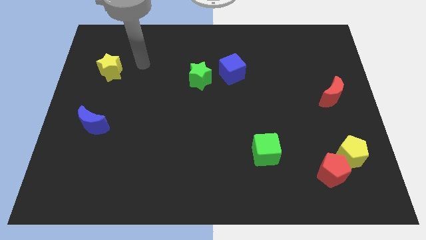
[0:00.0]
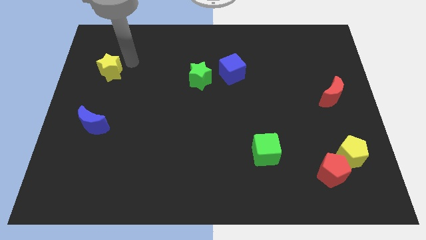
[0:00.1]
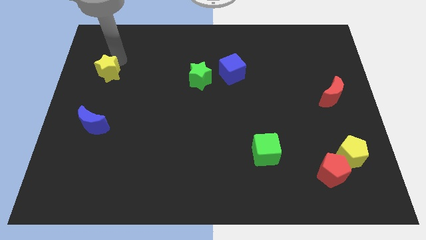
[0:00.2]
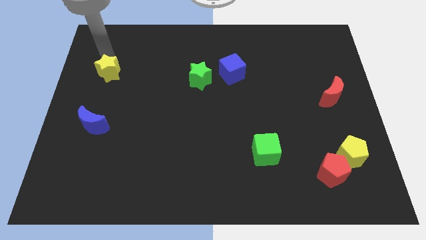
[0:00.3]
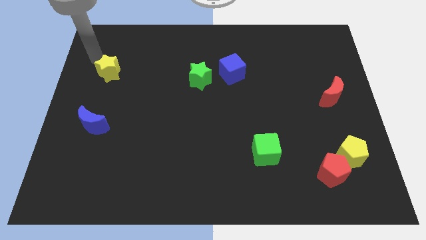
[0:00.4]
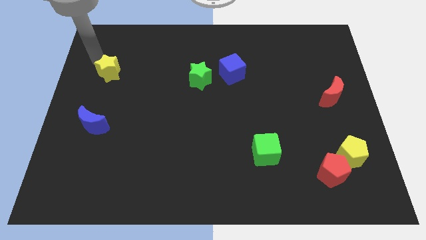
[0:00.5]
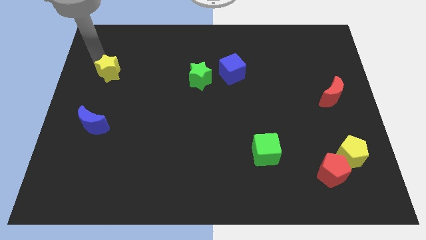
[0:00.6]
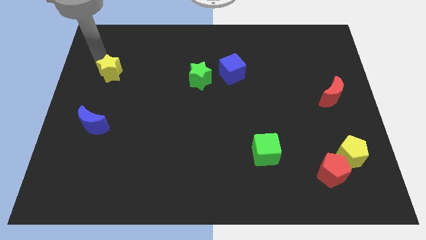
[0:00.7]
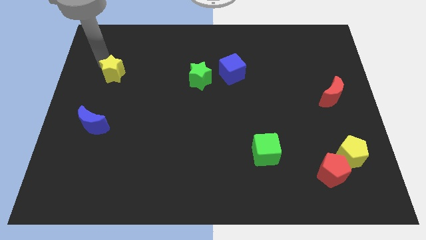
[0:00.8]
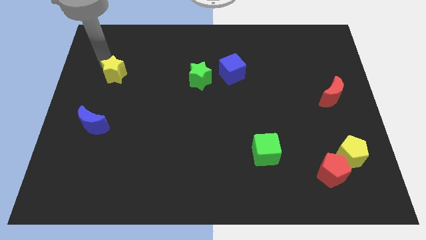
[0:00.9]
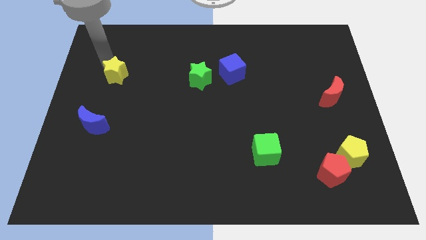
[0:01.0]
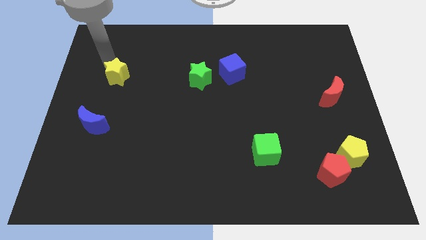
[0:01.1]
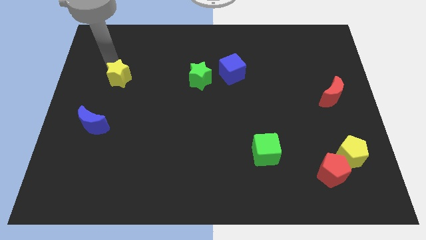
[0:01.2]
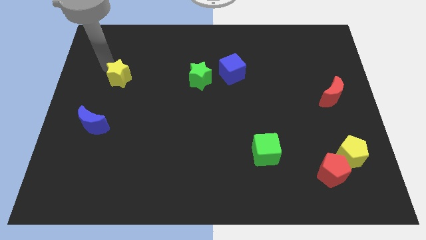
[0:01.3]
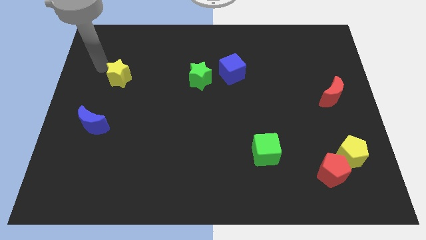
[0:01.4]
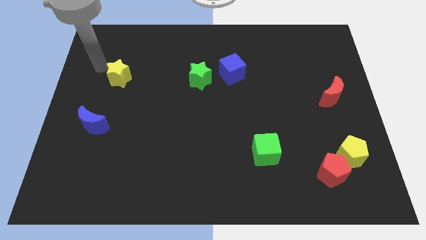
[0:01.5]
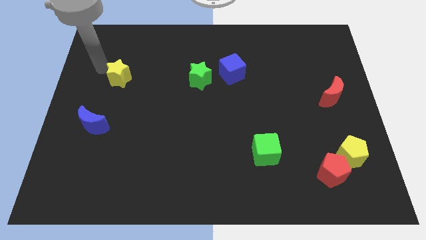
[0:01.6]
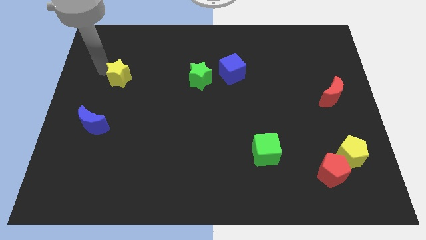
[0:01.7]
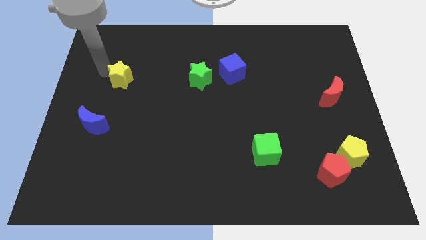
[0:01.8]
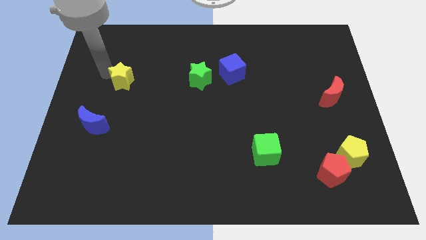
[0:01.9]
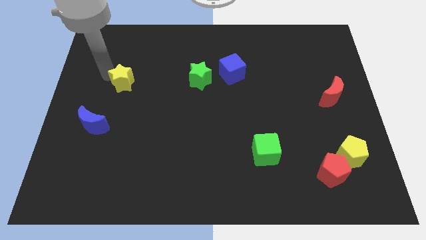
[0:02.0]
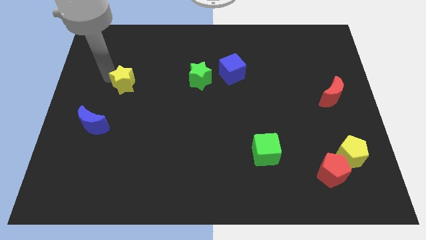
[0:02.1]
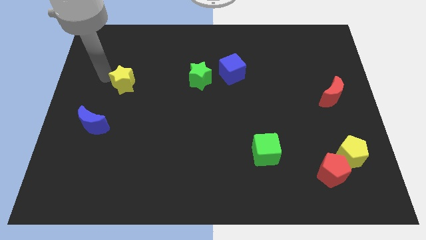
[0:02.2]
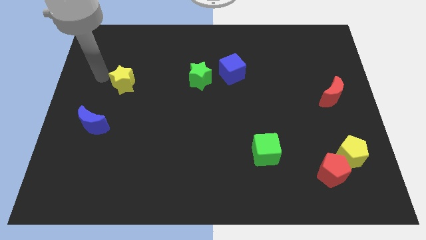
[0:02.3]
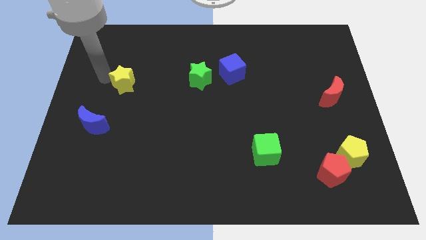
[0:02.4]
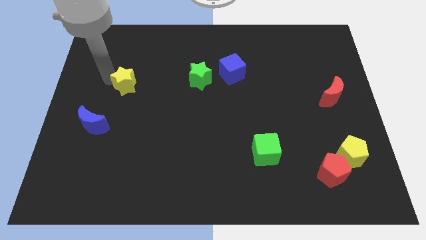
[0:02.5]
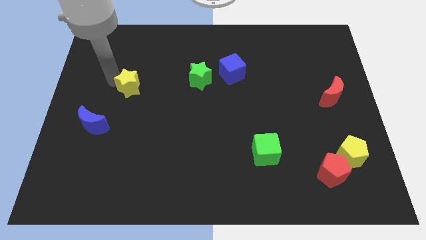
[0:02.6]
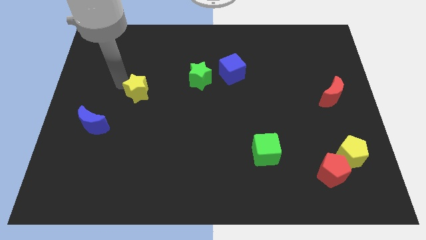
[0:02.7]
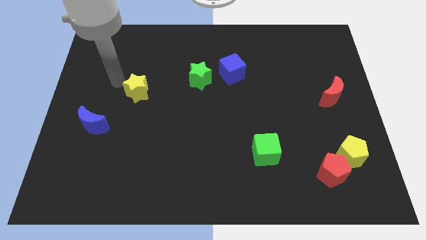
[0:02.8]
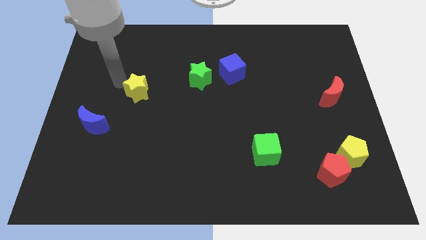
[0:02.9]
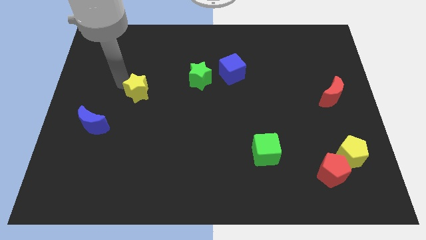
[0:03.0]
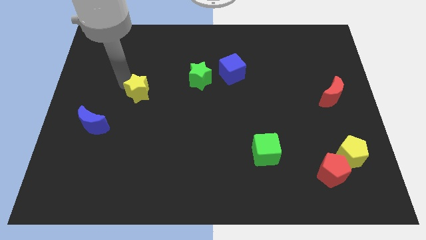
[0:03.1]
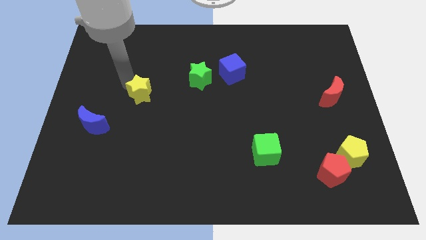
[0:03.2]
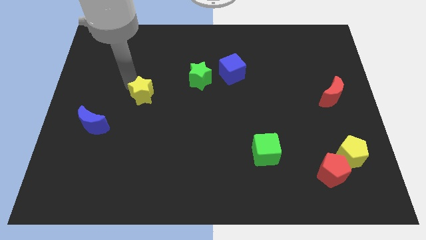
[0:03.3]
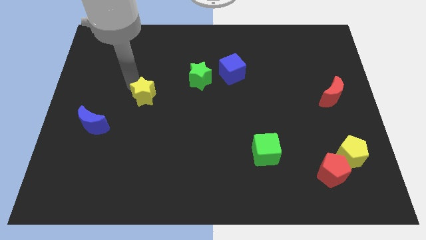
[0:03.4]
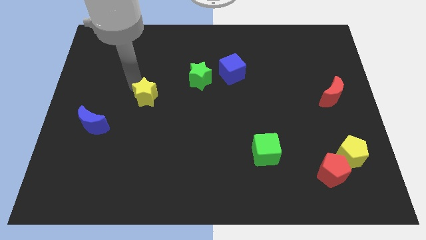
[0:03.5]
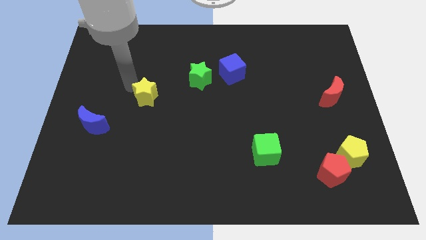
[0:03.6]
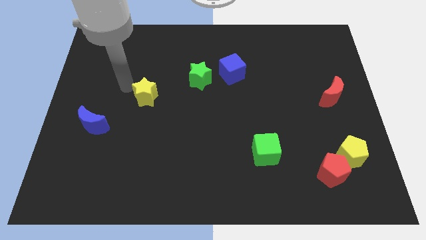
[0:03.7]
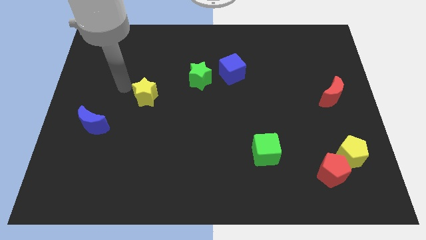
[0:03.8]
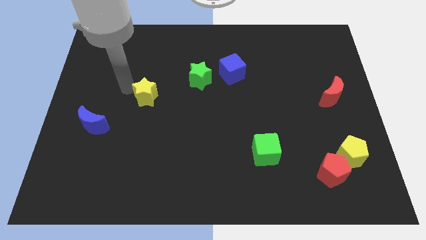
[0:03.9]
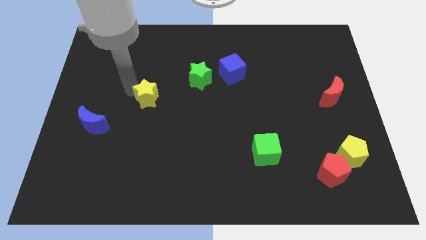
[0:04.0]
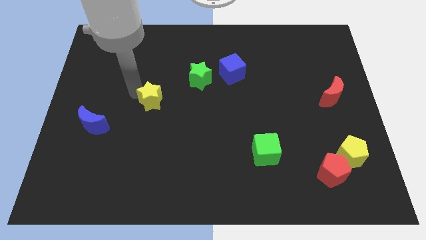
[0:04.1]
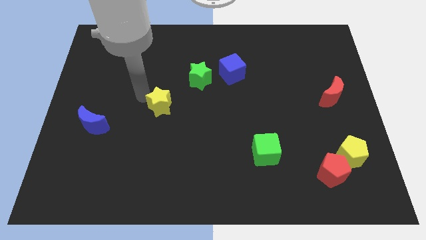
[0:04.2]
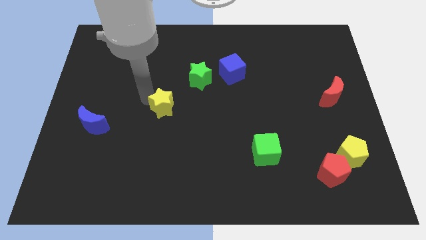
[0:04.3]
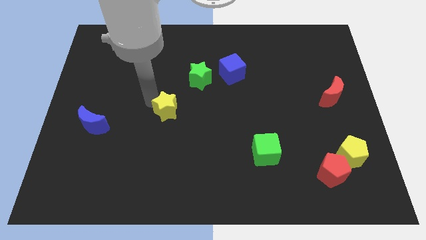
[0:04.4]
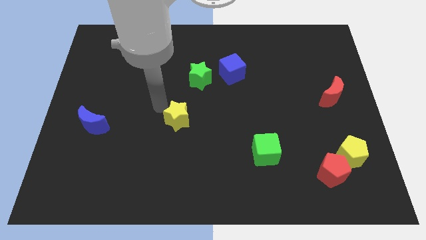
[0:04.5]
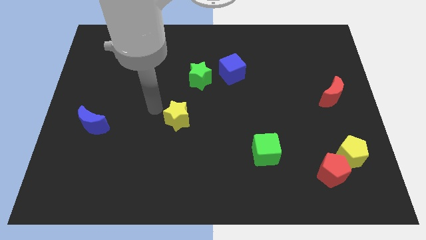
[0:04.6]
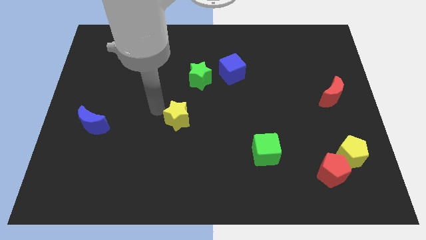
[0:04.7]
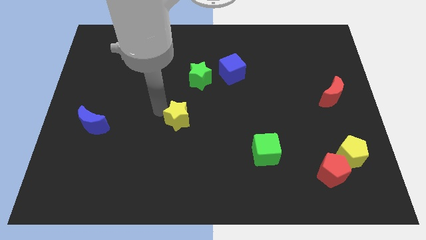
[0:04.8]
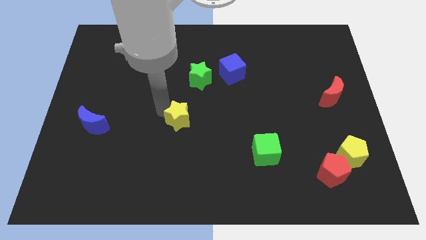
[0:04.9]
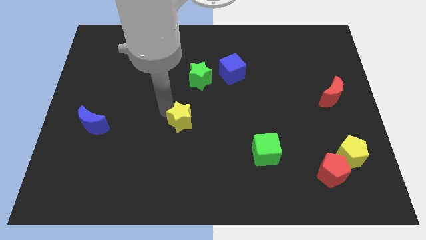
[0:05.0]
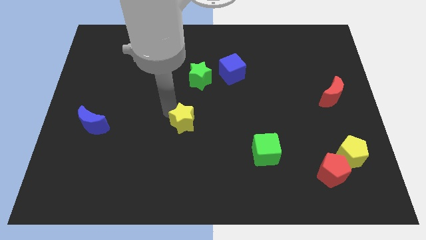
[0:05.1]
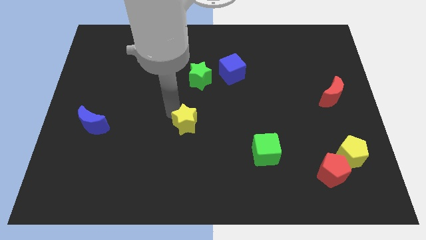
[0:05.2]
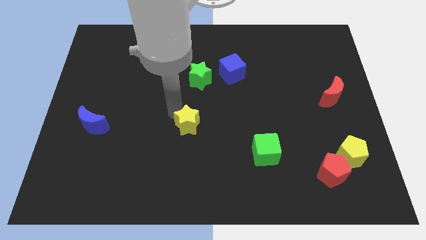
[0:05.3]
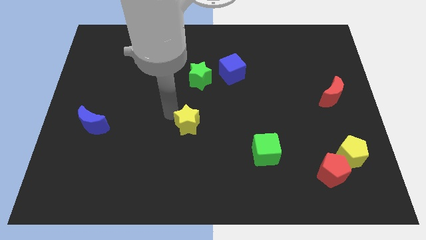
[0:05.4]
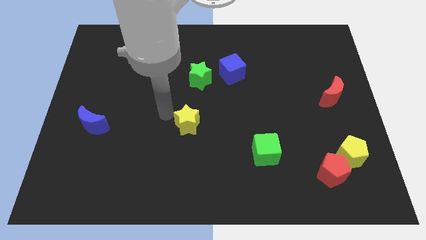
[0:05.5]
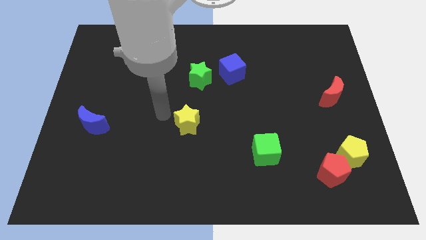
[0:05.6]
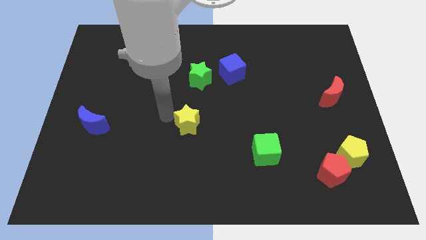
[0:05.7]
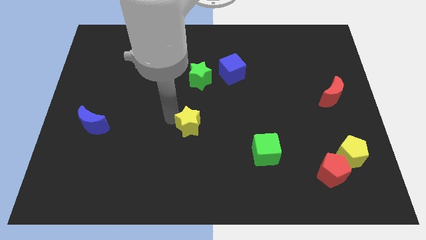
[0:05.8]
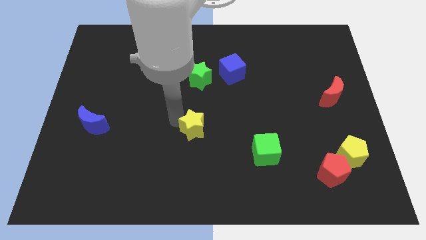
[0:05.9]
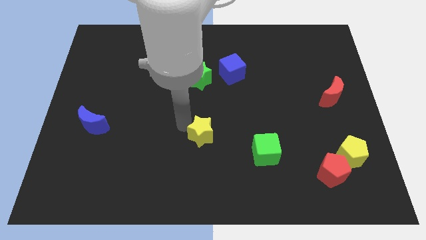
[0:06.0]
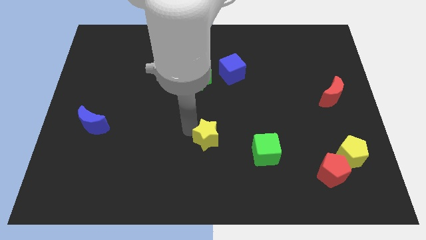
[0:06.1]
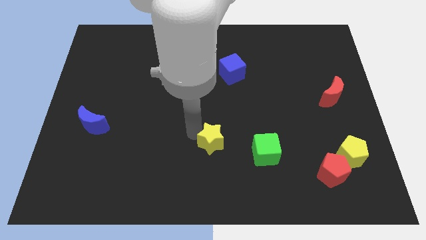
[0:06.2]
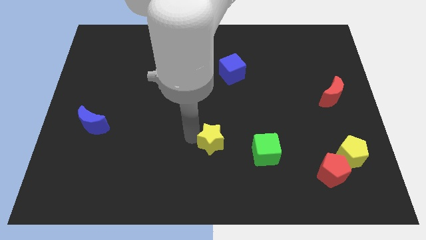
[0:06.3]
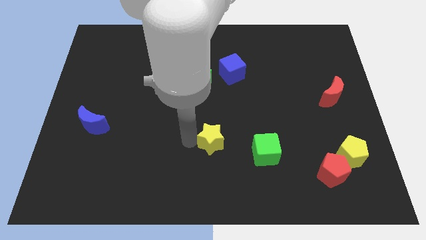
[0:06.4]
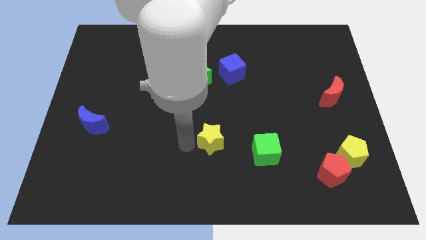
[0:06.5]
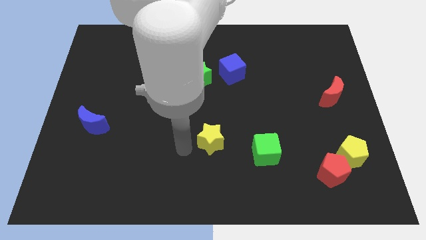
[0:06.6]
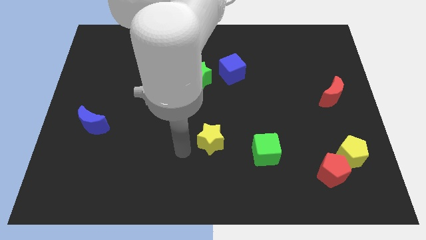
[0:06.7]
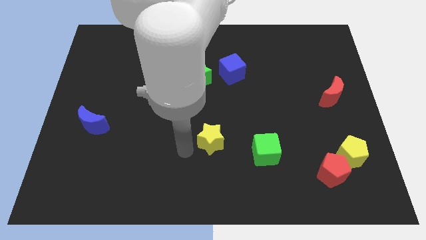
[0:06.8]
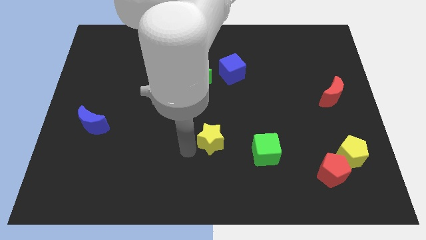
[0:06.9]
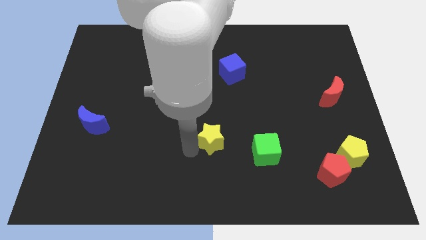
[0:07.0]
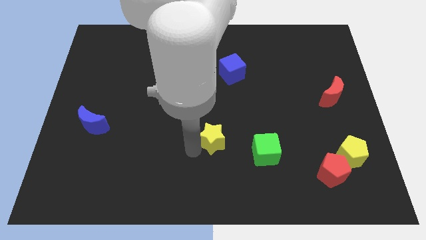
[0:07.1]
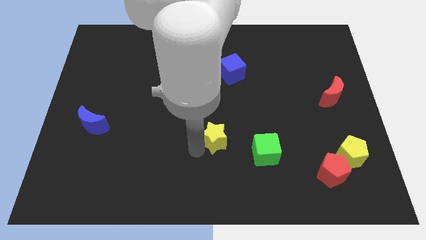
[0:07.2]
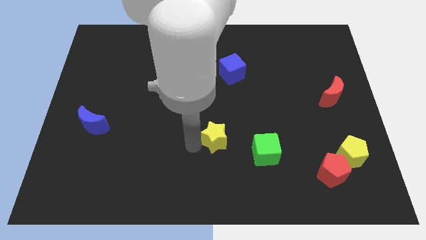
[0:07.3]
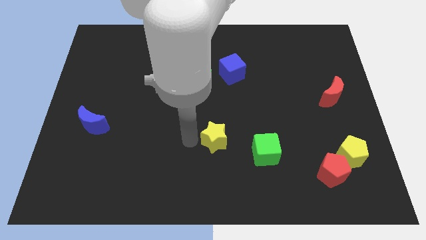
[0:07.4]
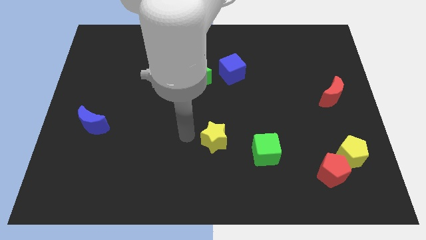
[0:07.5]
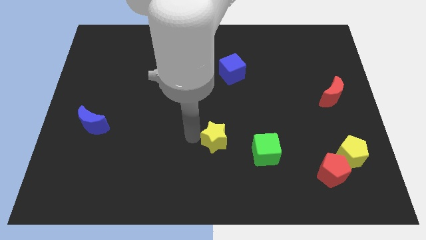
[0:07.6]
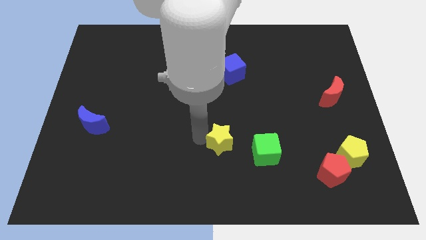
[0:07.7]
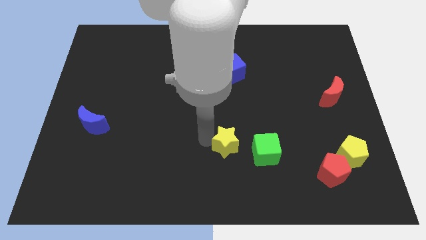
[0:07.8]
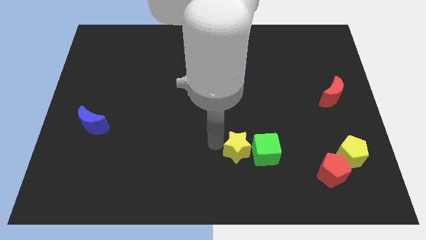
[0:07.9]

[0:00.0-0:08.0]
slide the yellow star towards the green cube
